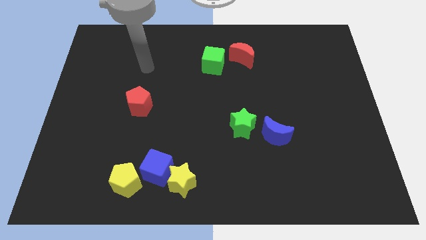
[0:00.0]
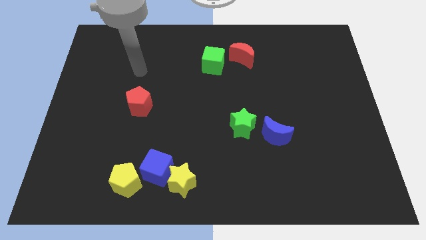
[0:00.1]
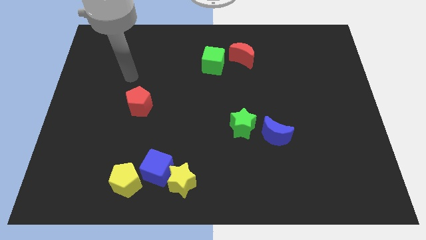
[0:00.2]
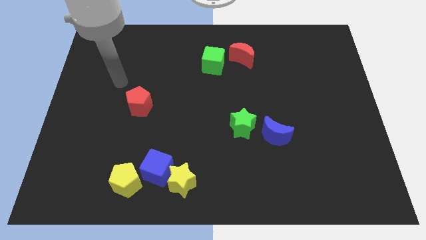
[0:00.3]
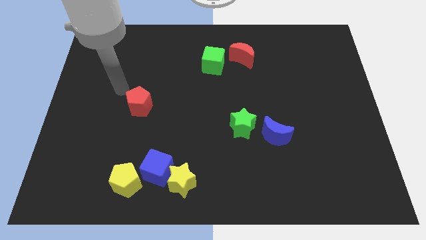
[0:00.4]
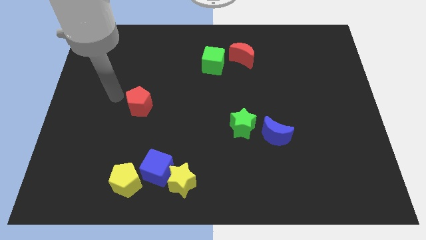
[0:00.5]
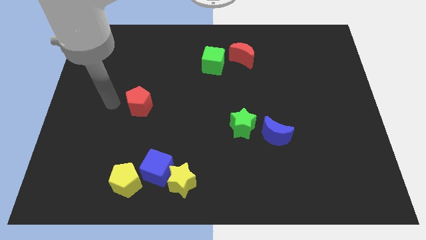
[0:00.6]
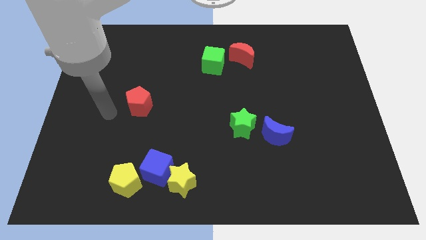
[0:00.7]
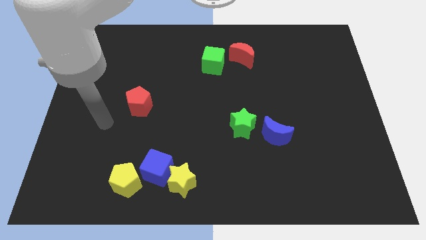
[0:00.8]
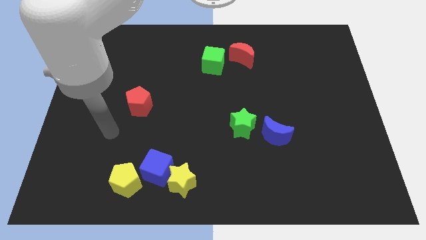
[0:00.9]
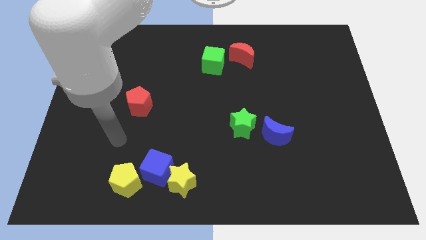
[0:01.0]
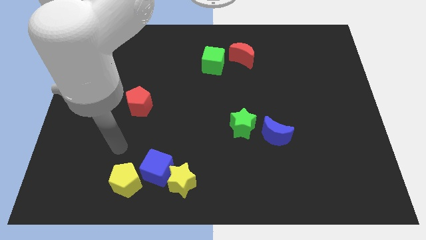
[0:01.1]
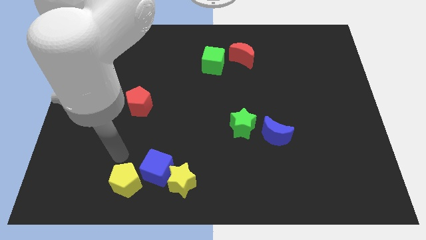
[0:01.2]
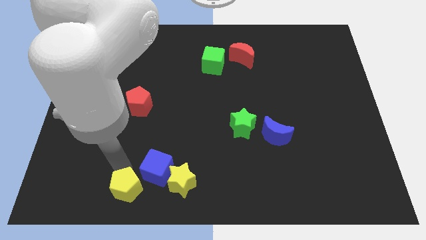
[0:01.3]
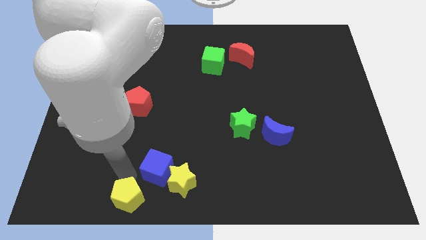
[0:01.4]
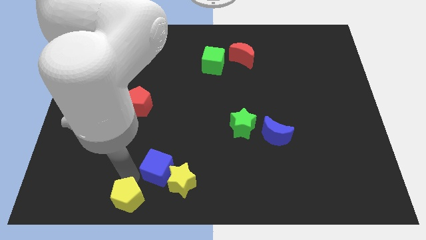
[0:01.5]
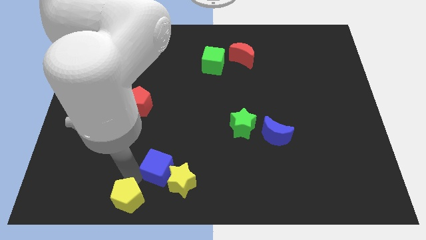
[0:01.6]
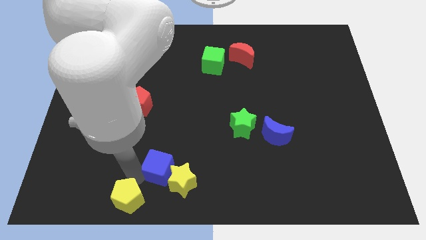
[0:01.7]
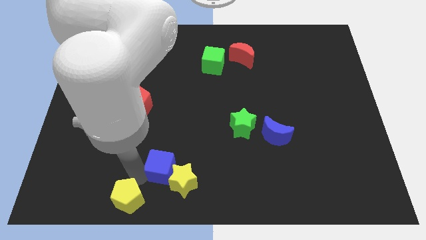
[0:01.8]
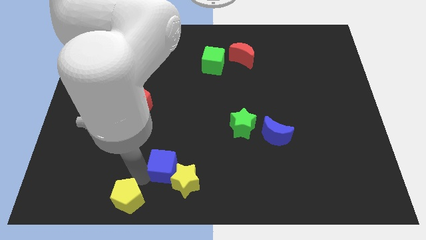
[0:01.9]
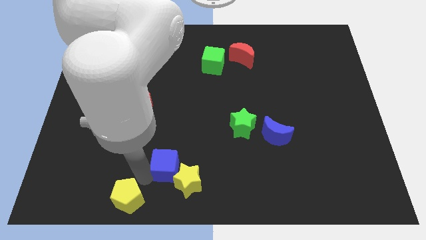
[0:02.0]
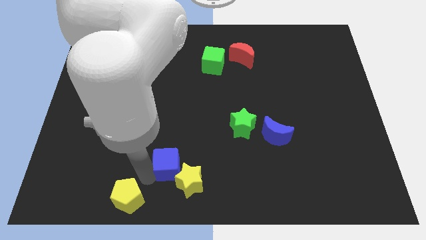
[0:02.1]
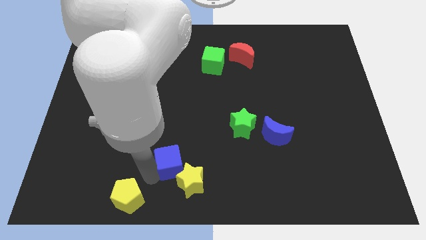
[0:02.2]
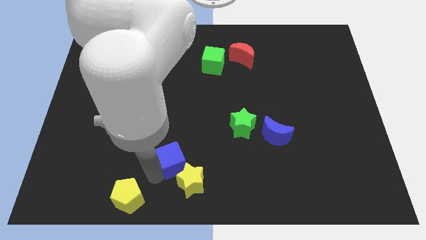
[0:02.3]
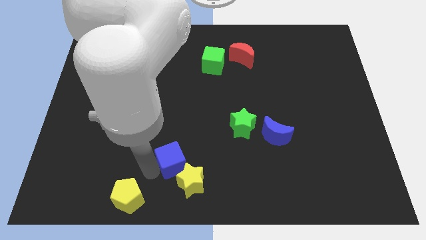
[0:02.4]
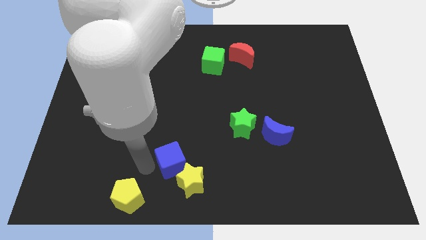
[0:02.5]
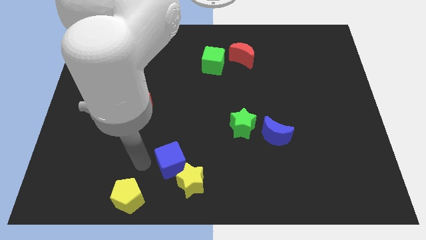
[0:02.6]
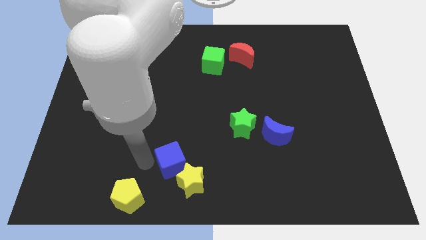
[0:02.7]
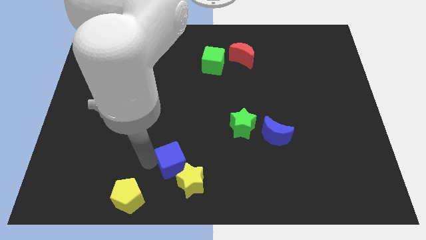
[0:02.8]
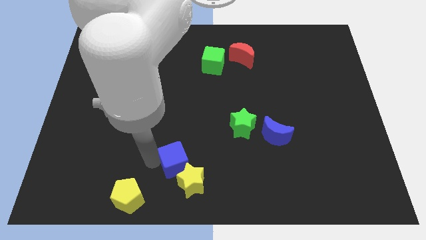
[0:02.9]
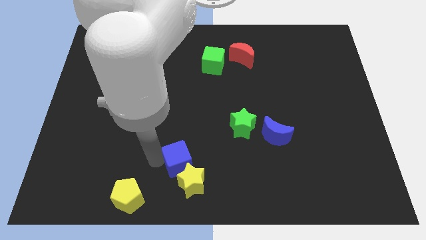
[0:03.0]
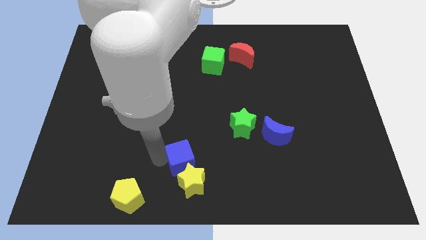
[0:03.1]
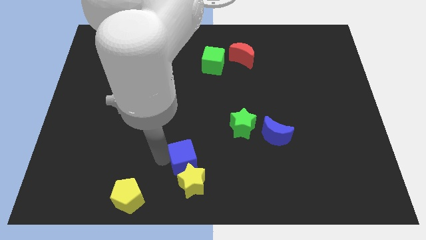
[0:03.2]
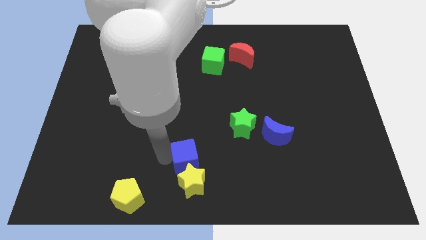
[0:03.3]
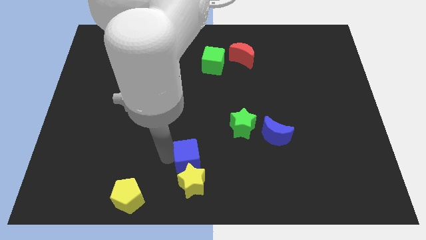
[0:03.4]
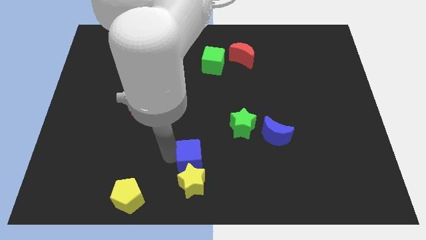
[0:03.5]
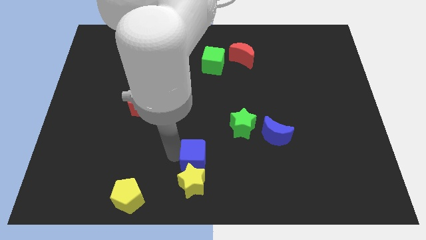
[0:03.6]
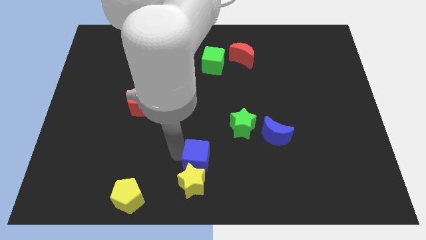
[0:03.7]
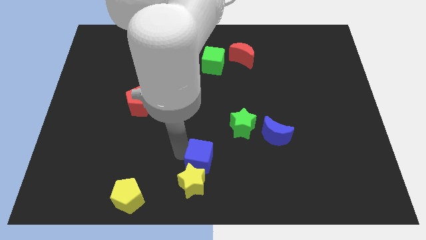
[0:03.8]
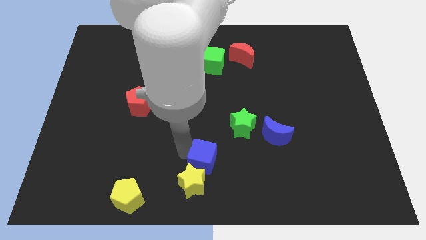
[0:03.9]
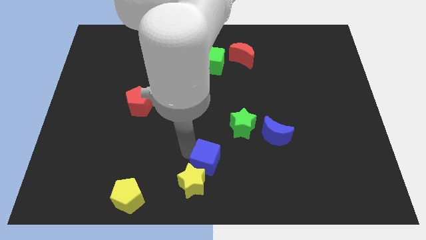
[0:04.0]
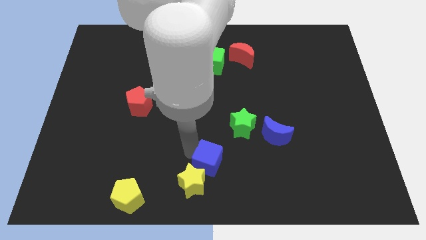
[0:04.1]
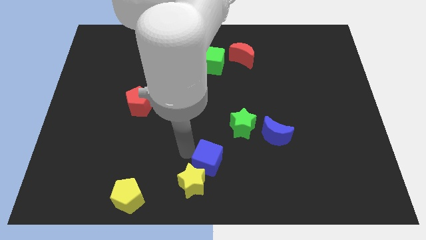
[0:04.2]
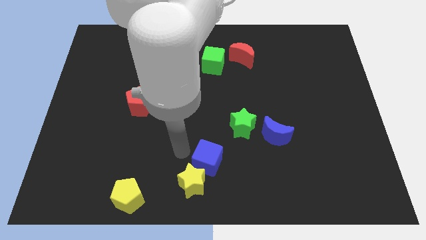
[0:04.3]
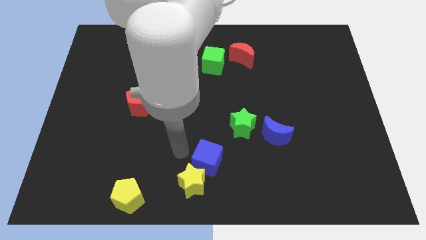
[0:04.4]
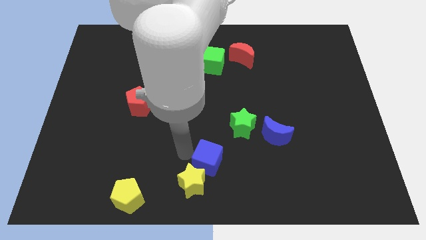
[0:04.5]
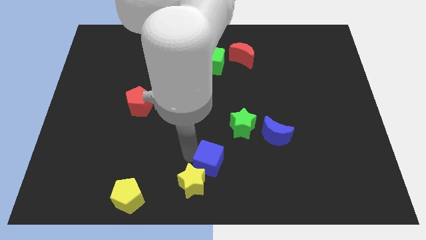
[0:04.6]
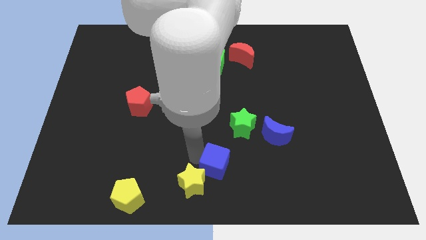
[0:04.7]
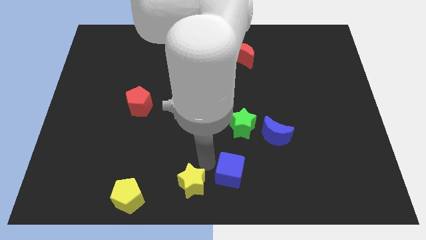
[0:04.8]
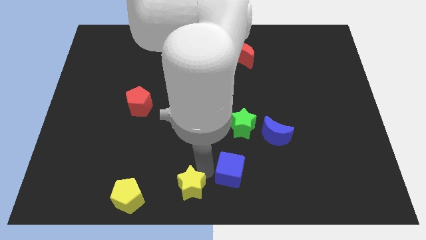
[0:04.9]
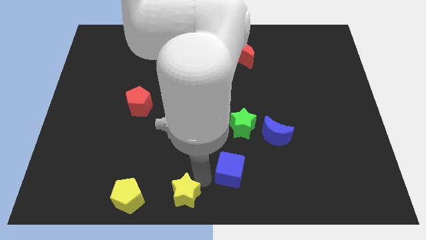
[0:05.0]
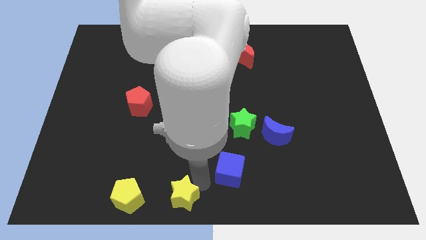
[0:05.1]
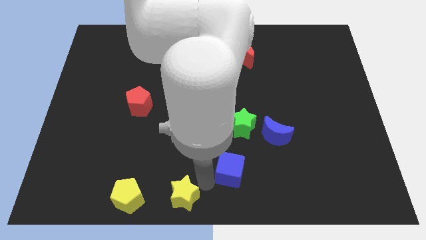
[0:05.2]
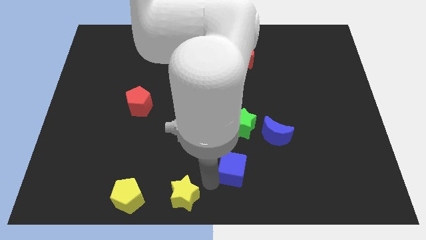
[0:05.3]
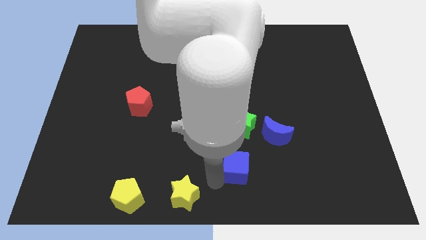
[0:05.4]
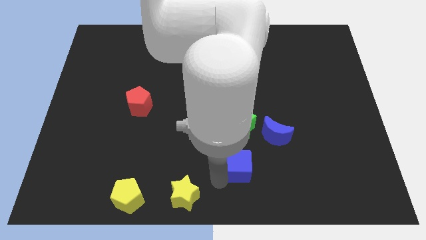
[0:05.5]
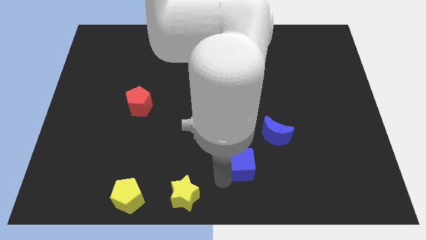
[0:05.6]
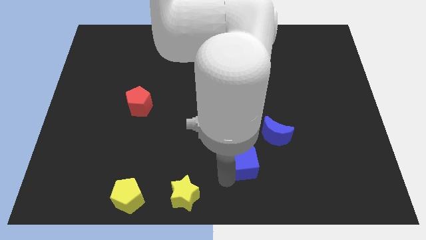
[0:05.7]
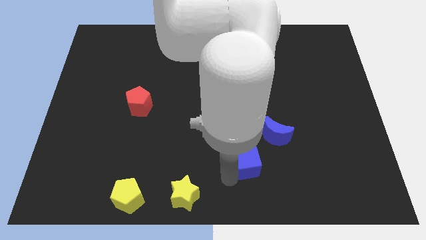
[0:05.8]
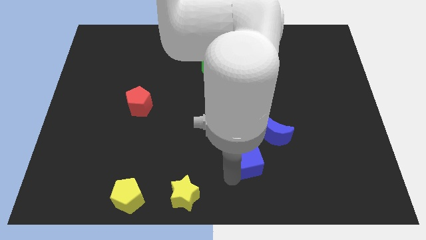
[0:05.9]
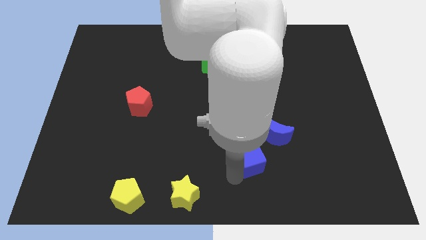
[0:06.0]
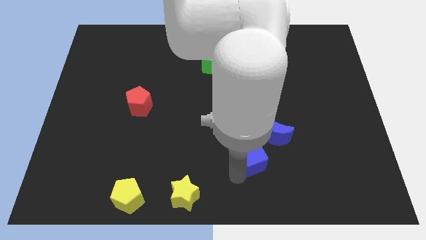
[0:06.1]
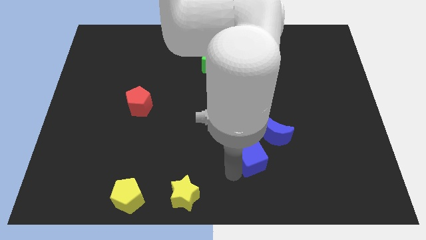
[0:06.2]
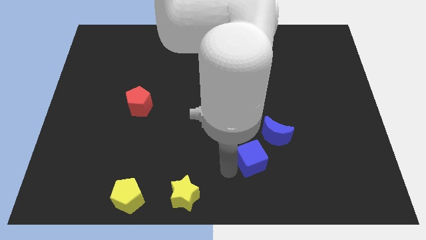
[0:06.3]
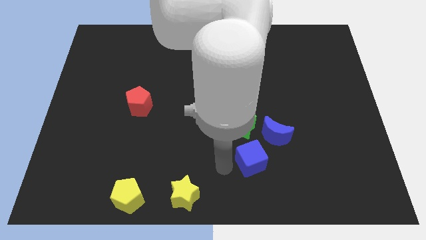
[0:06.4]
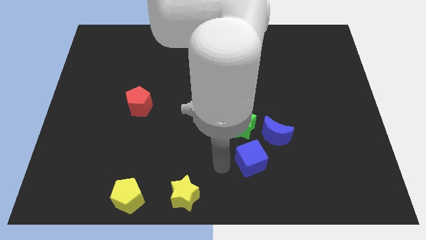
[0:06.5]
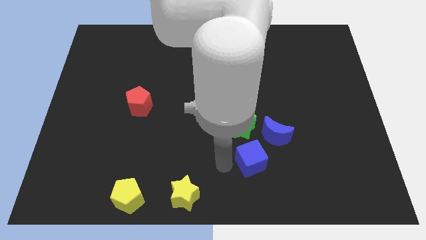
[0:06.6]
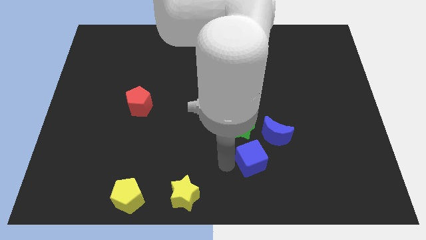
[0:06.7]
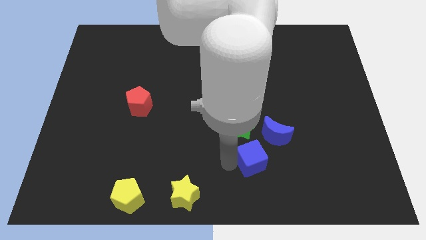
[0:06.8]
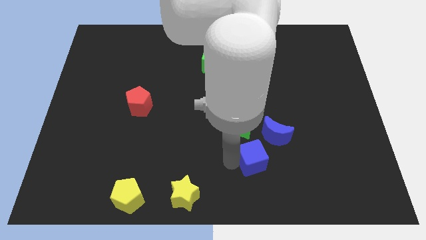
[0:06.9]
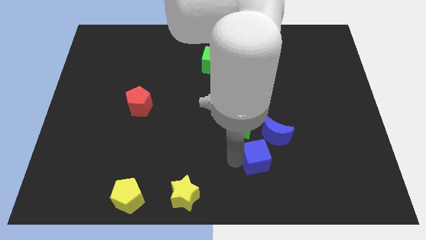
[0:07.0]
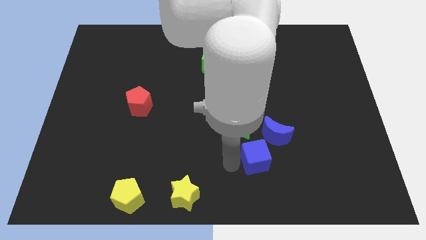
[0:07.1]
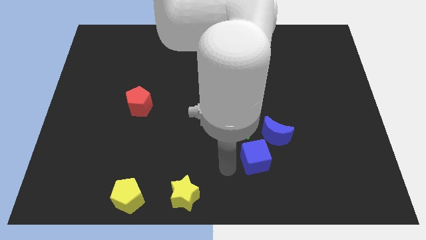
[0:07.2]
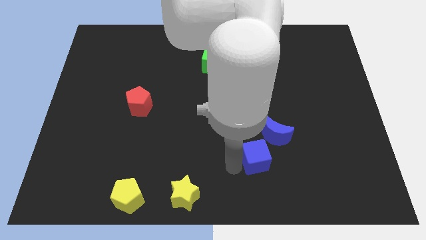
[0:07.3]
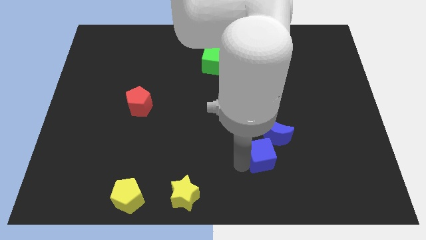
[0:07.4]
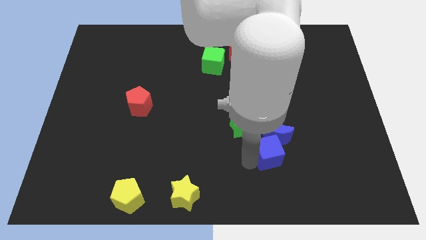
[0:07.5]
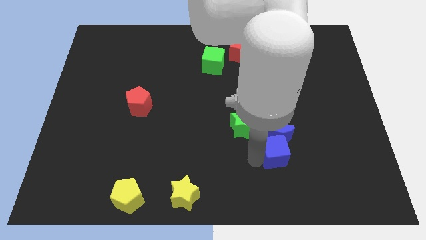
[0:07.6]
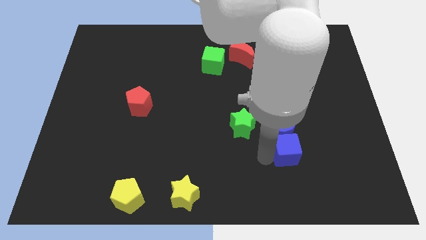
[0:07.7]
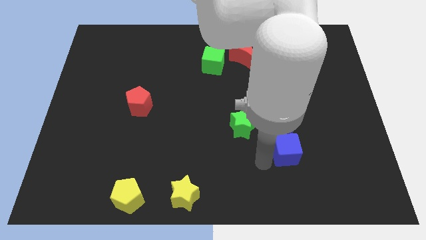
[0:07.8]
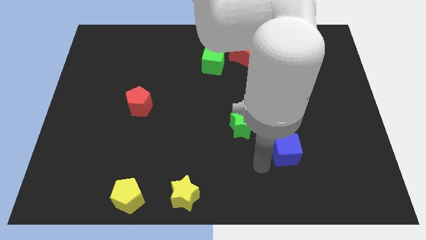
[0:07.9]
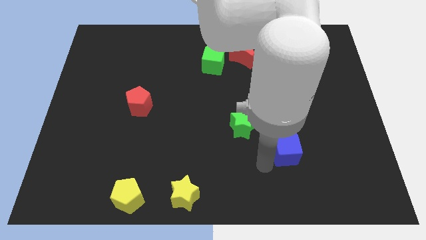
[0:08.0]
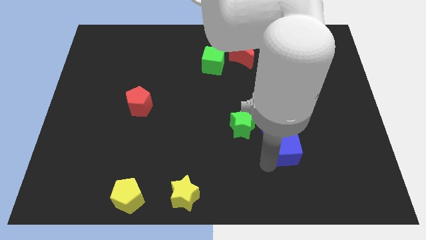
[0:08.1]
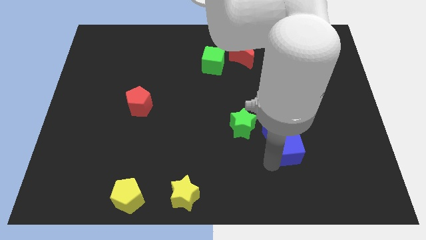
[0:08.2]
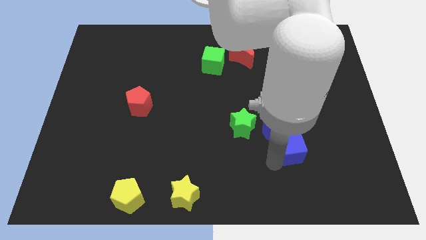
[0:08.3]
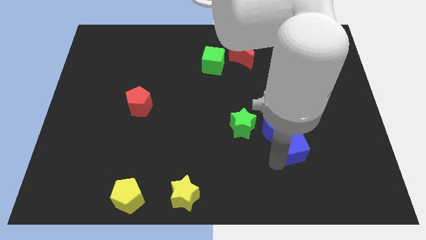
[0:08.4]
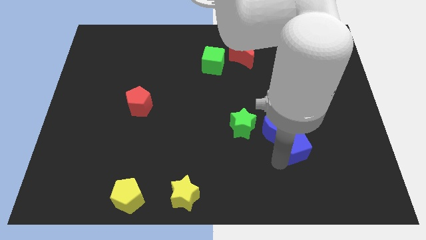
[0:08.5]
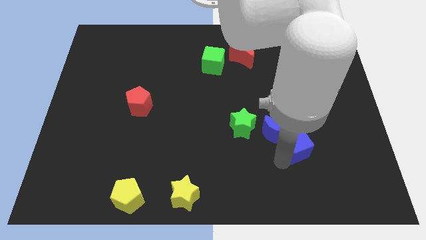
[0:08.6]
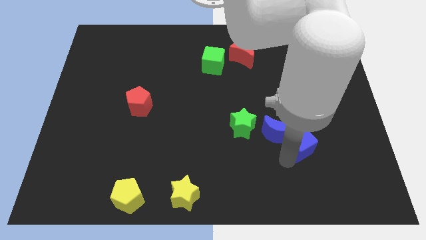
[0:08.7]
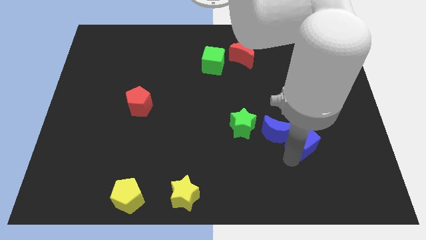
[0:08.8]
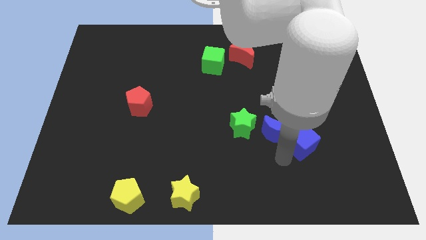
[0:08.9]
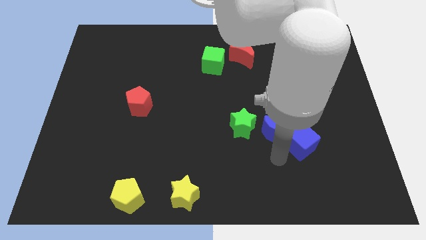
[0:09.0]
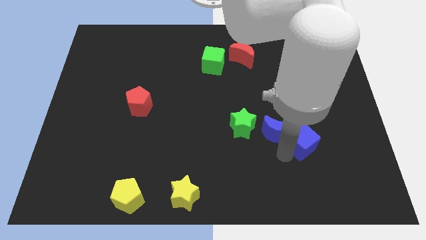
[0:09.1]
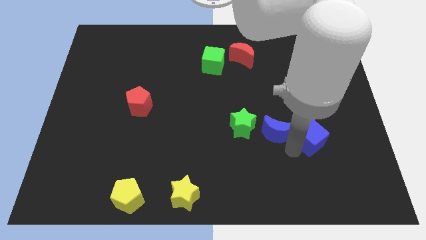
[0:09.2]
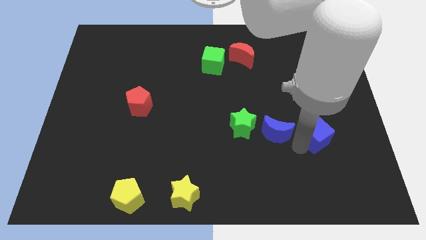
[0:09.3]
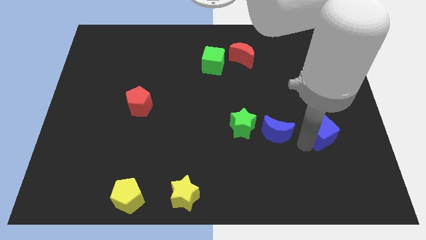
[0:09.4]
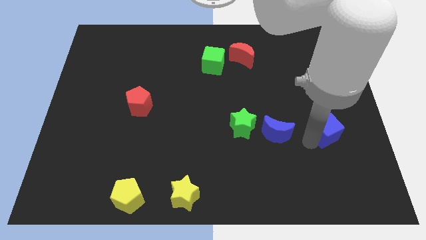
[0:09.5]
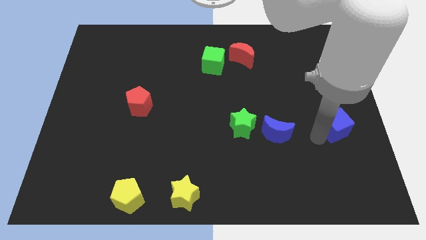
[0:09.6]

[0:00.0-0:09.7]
put the blue cube to the center right
